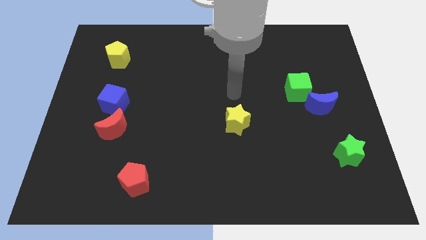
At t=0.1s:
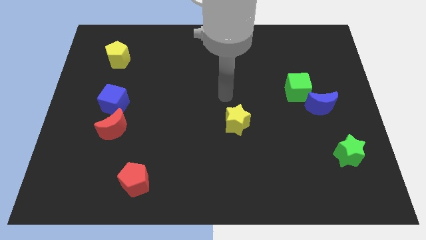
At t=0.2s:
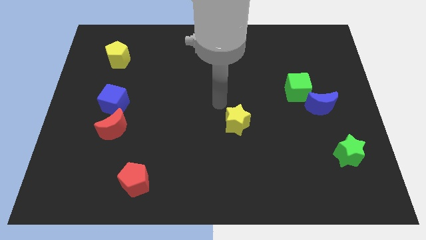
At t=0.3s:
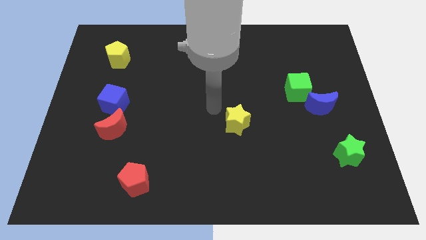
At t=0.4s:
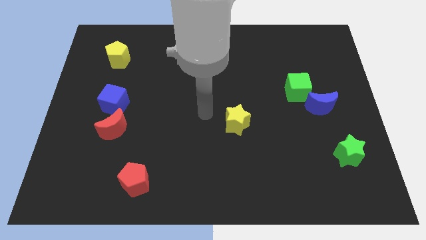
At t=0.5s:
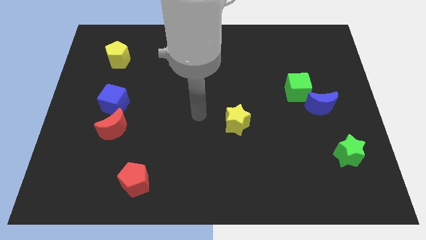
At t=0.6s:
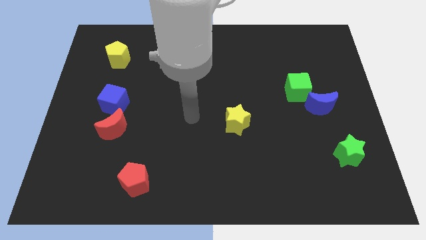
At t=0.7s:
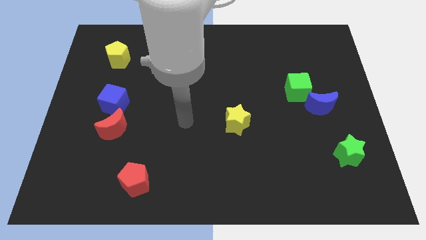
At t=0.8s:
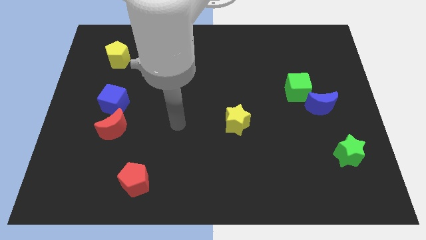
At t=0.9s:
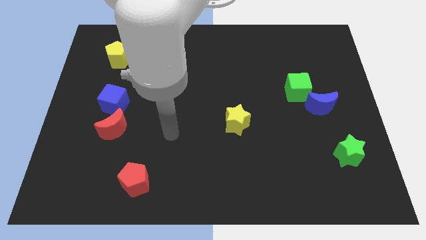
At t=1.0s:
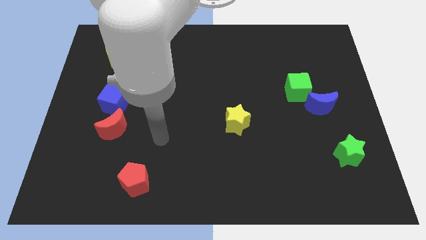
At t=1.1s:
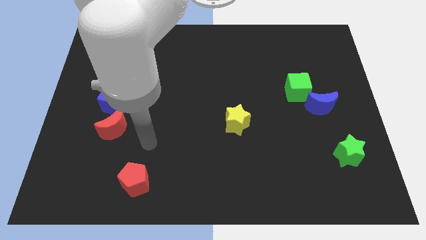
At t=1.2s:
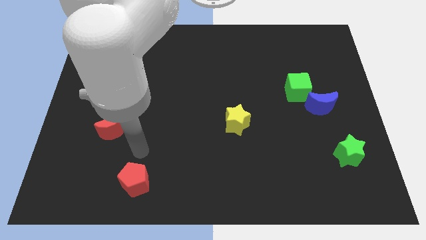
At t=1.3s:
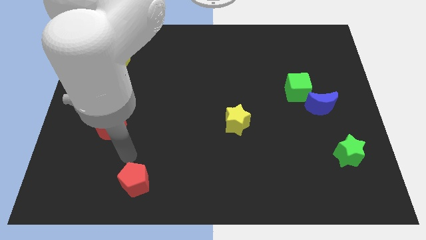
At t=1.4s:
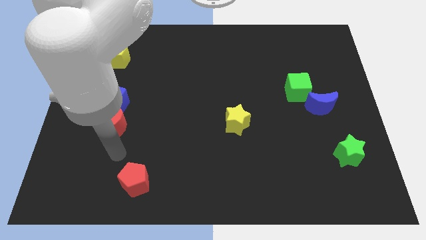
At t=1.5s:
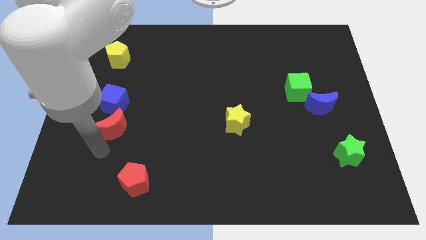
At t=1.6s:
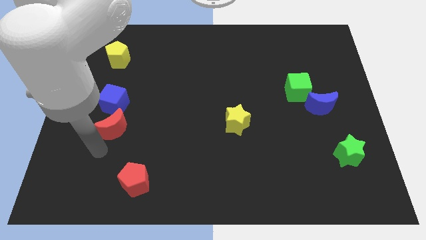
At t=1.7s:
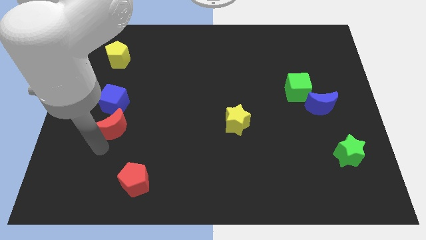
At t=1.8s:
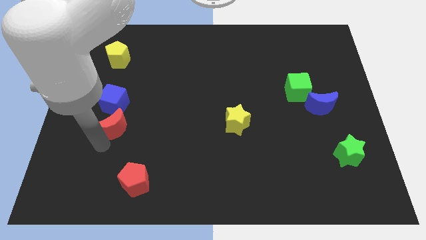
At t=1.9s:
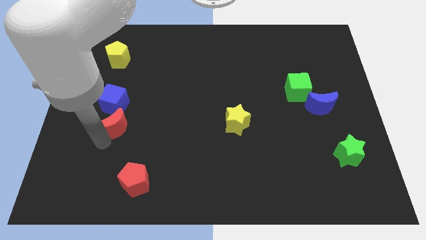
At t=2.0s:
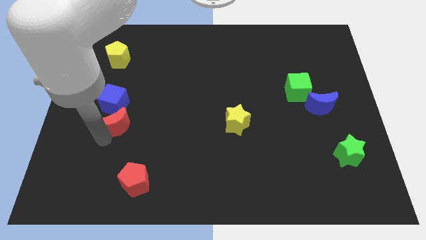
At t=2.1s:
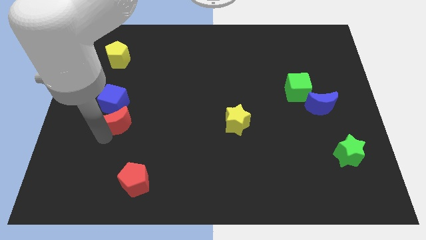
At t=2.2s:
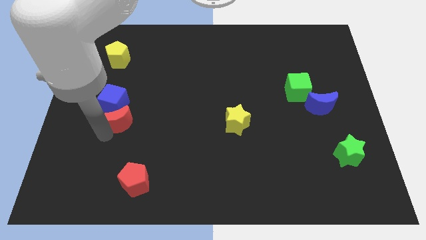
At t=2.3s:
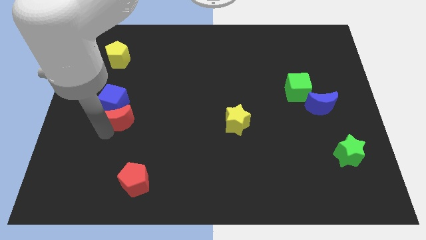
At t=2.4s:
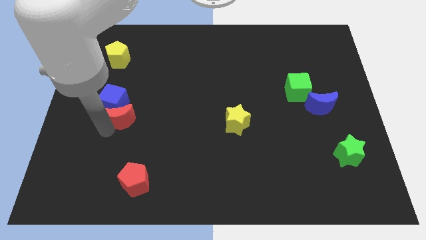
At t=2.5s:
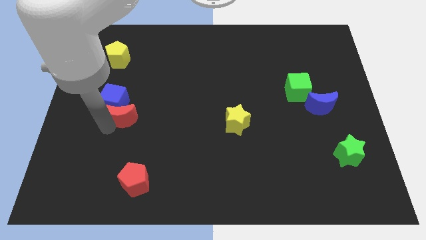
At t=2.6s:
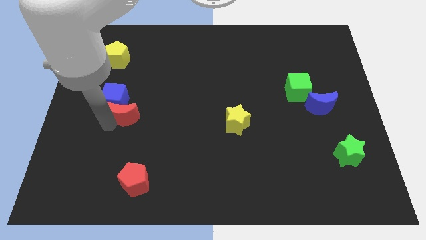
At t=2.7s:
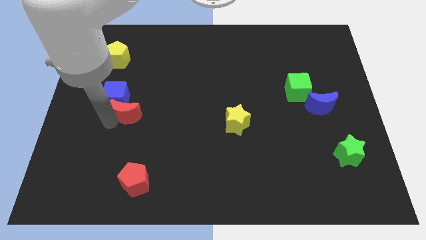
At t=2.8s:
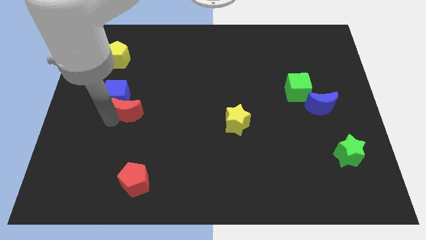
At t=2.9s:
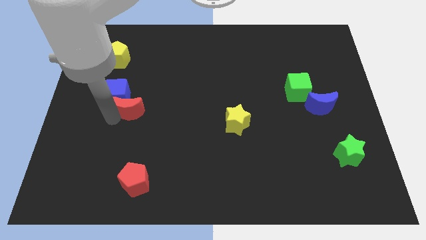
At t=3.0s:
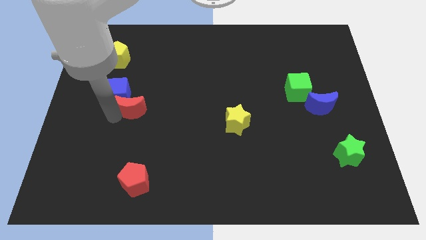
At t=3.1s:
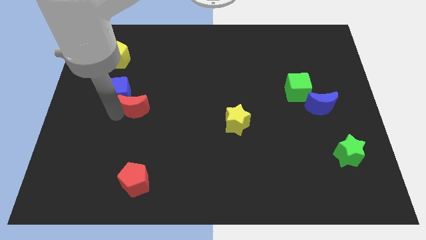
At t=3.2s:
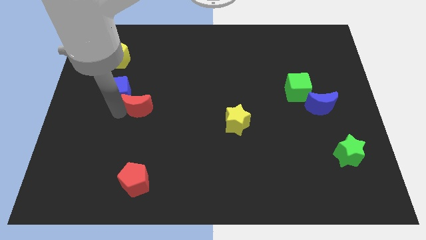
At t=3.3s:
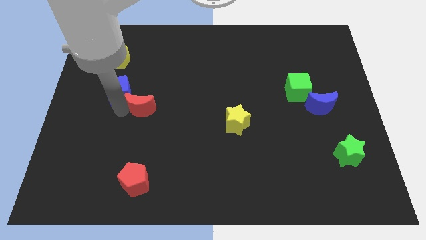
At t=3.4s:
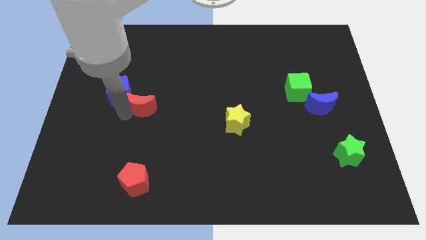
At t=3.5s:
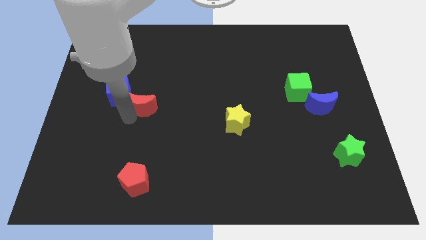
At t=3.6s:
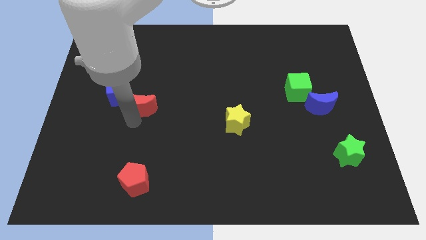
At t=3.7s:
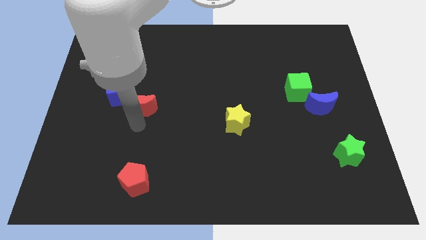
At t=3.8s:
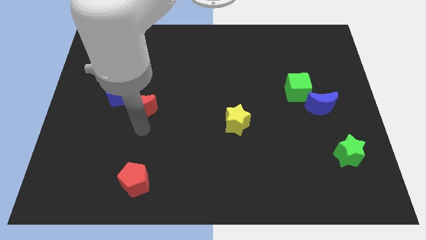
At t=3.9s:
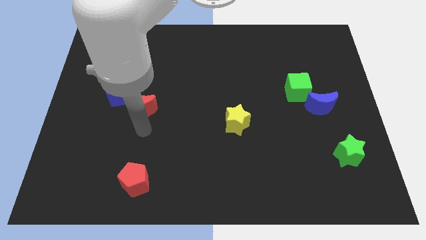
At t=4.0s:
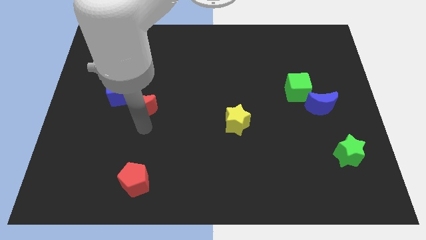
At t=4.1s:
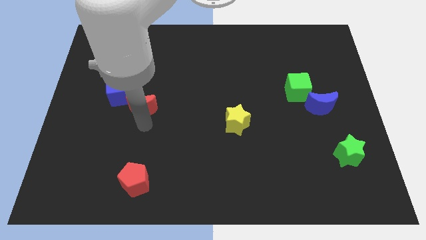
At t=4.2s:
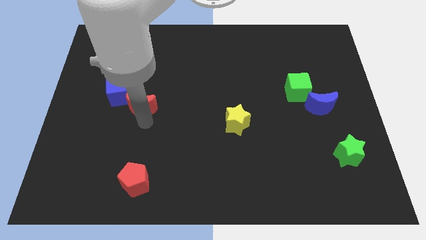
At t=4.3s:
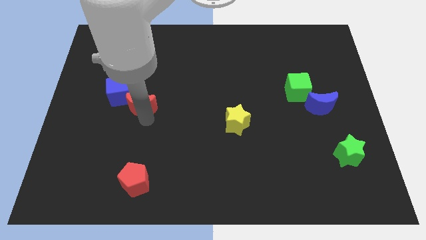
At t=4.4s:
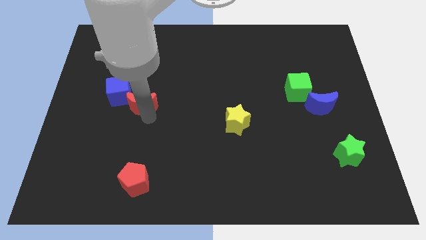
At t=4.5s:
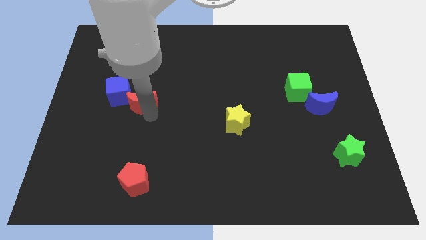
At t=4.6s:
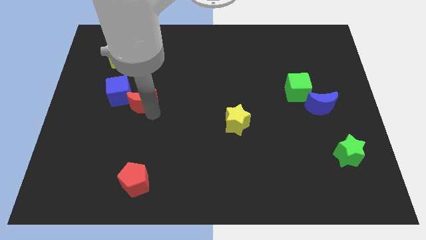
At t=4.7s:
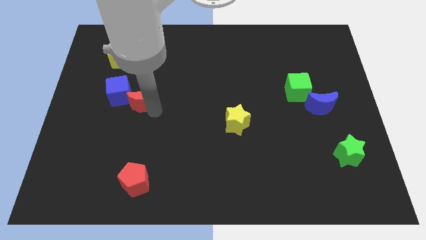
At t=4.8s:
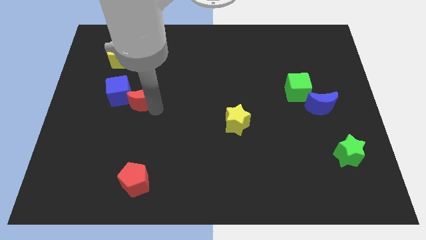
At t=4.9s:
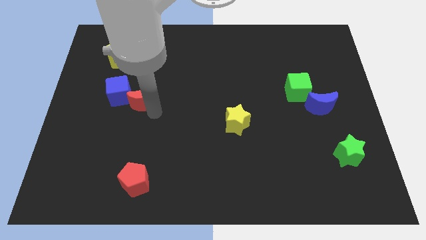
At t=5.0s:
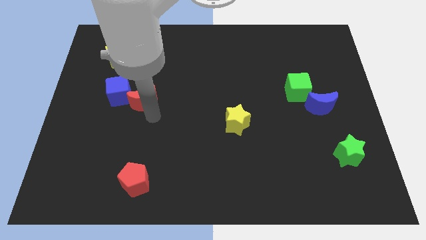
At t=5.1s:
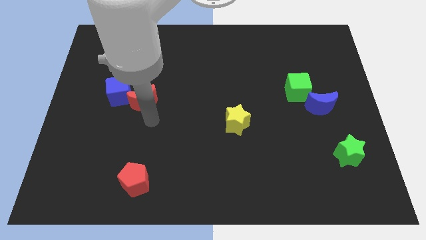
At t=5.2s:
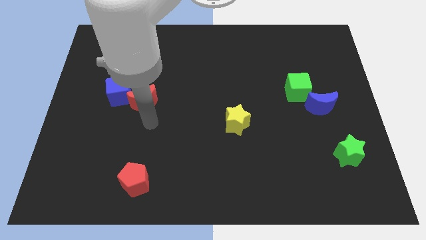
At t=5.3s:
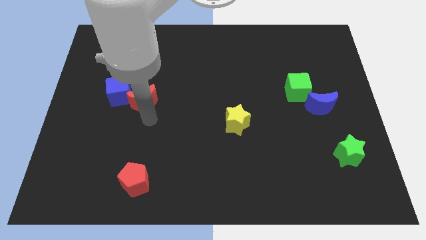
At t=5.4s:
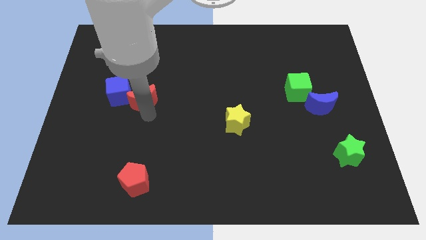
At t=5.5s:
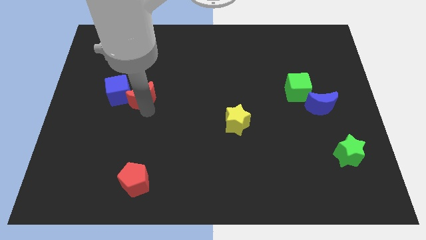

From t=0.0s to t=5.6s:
move the red moon up somewhat

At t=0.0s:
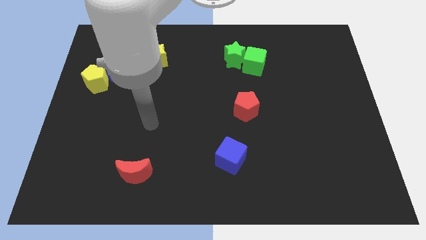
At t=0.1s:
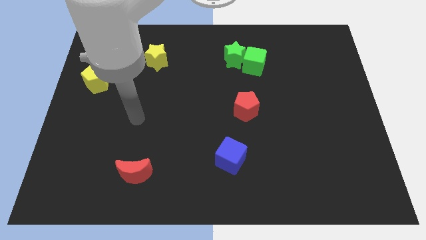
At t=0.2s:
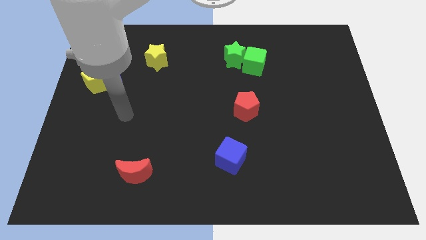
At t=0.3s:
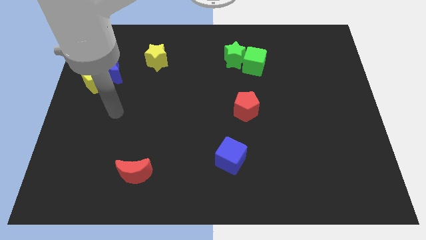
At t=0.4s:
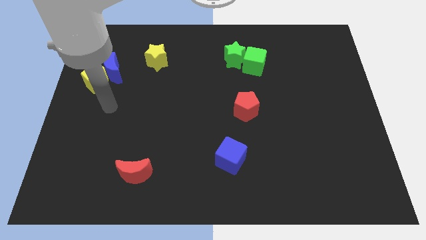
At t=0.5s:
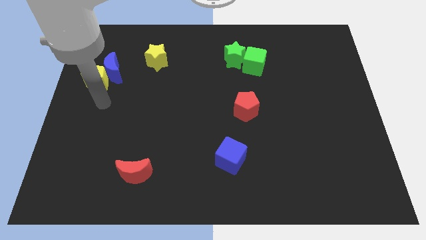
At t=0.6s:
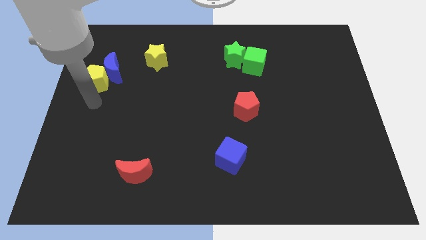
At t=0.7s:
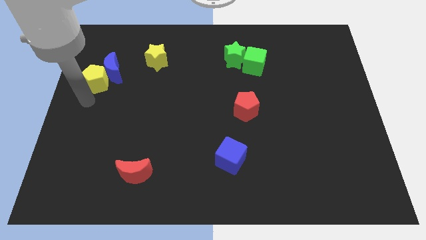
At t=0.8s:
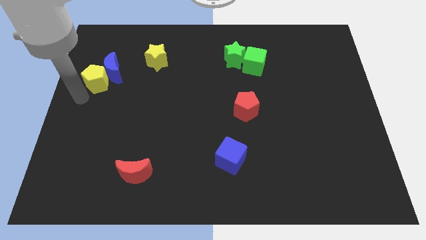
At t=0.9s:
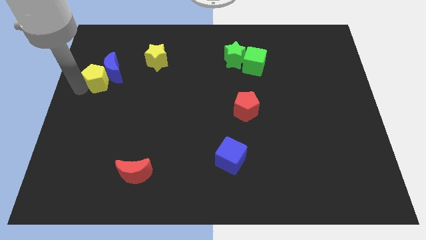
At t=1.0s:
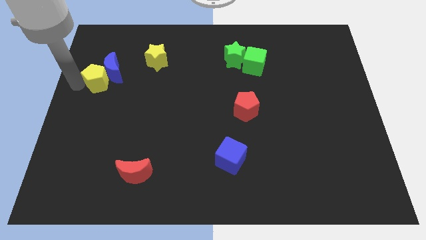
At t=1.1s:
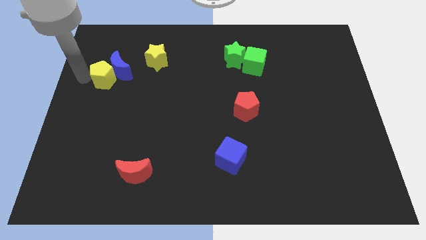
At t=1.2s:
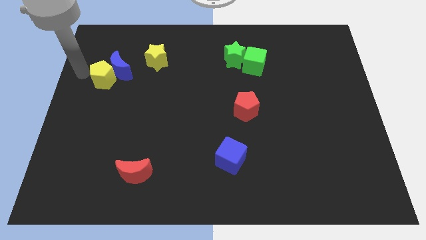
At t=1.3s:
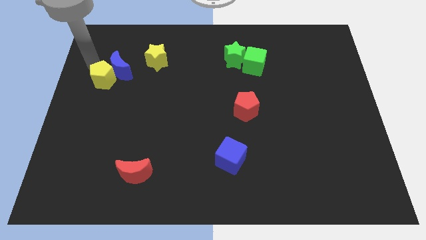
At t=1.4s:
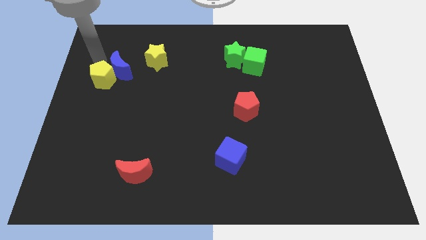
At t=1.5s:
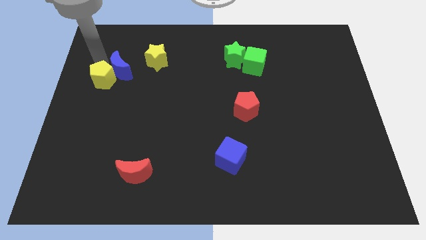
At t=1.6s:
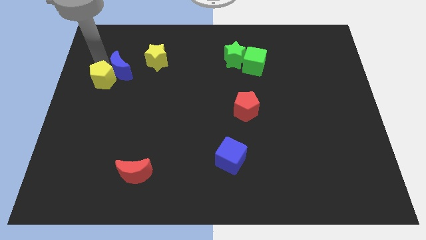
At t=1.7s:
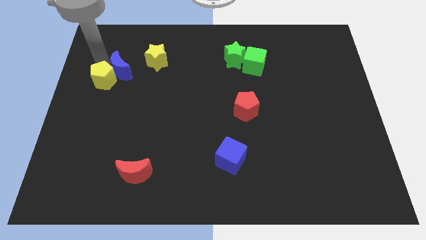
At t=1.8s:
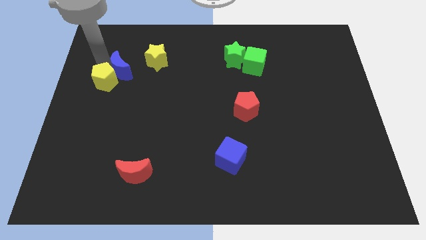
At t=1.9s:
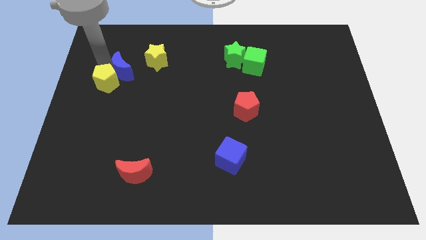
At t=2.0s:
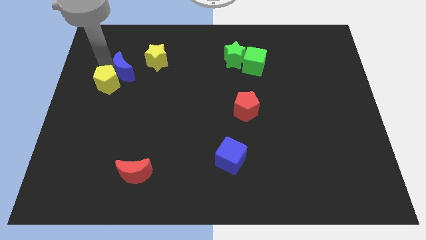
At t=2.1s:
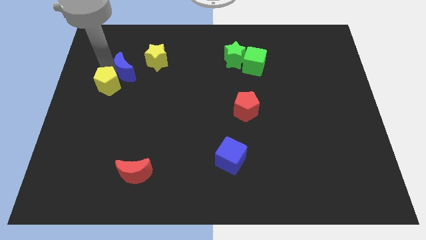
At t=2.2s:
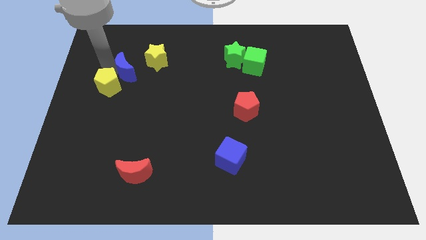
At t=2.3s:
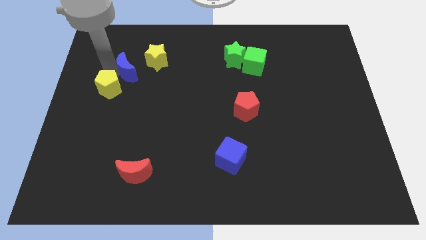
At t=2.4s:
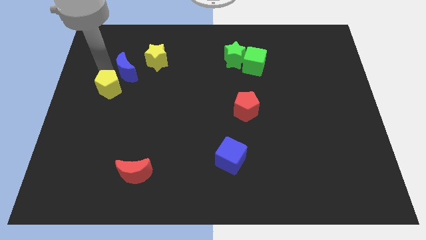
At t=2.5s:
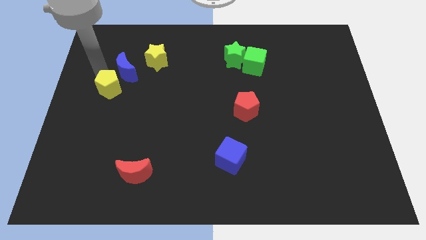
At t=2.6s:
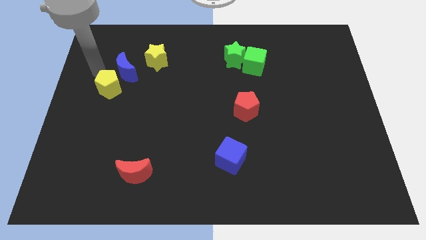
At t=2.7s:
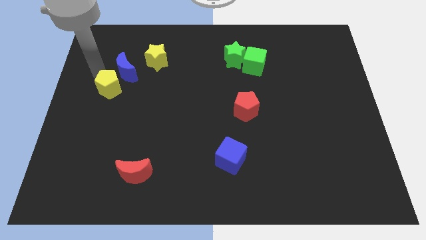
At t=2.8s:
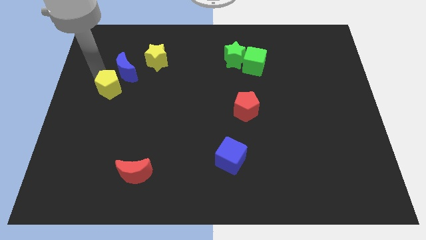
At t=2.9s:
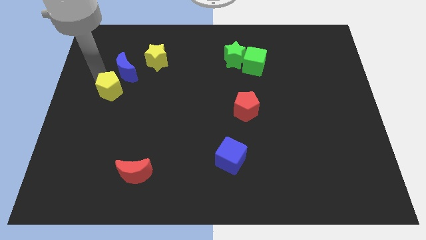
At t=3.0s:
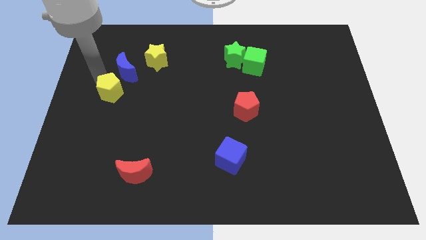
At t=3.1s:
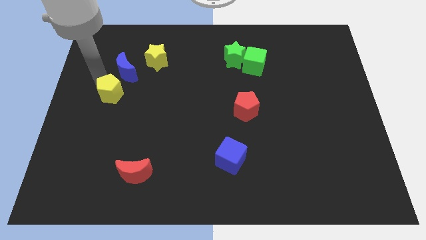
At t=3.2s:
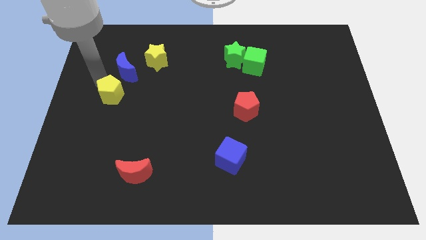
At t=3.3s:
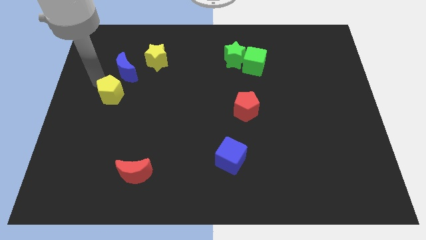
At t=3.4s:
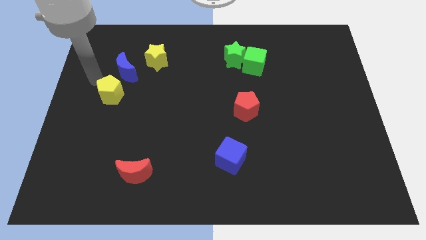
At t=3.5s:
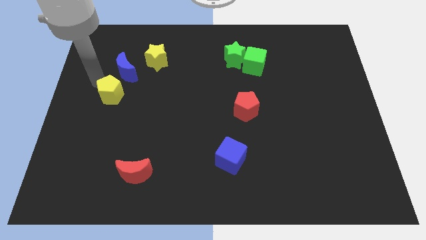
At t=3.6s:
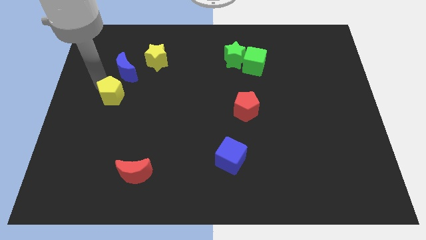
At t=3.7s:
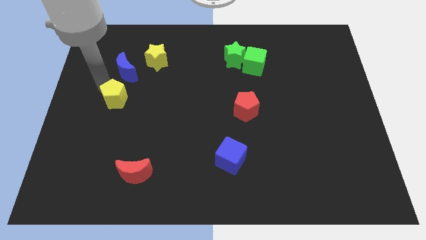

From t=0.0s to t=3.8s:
slide the yellow pentagon diagonally down and to the right a little
